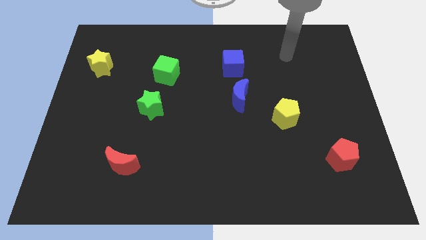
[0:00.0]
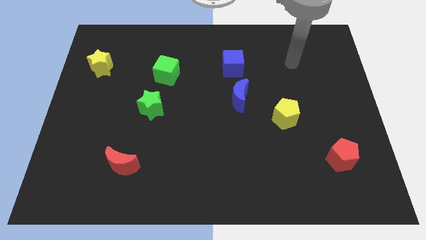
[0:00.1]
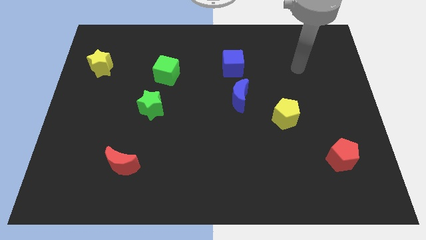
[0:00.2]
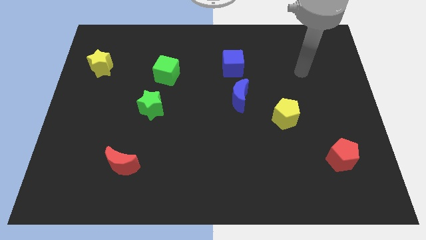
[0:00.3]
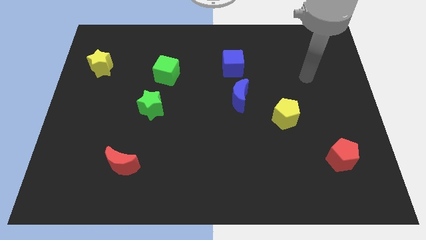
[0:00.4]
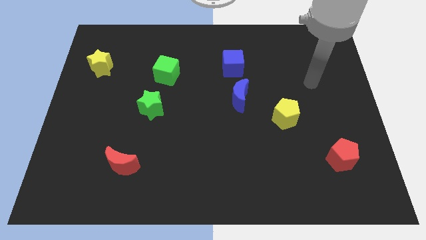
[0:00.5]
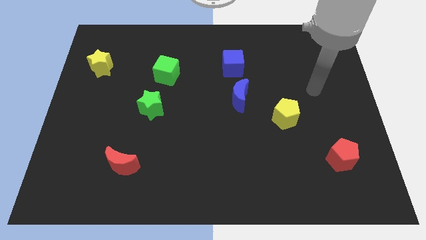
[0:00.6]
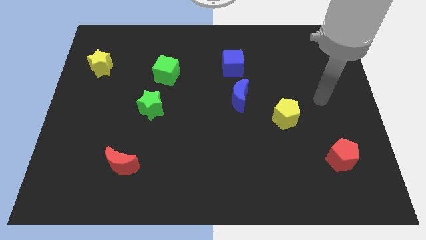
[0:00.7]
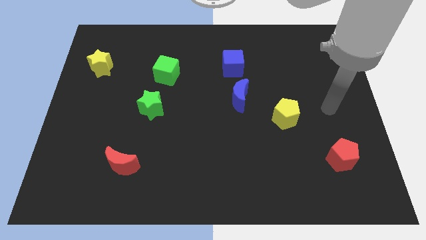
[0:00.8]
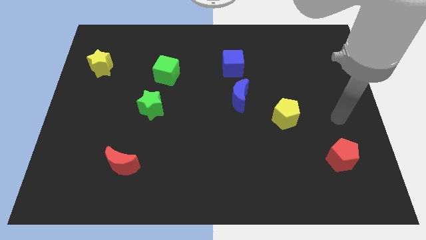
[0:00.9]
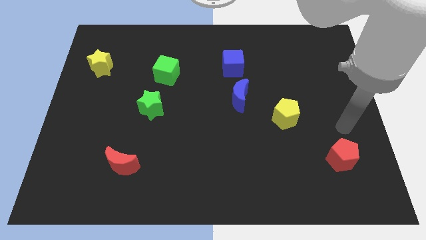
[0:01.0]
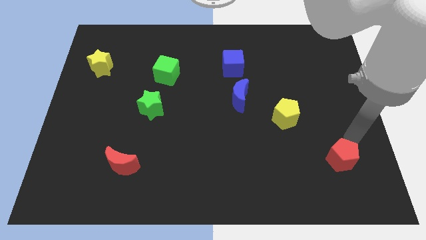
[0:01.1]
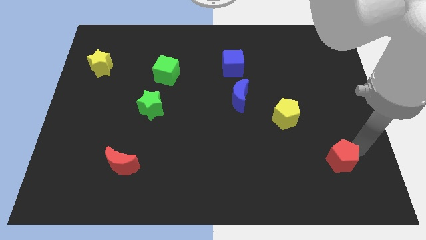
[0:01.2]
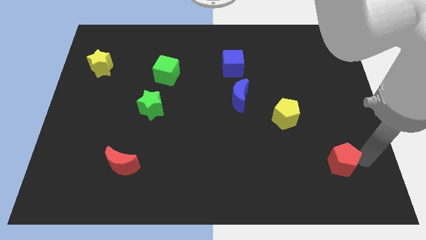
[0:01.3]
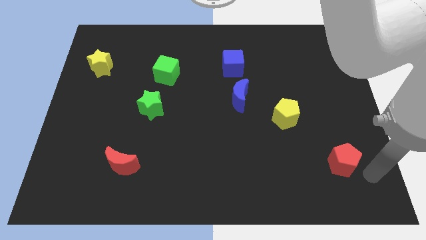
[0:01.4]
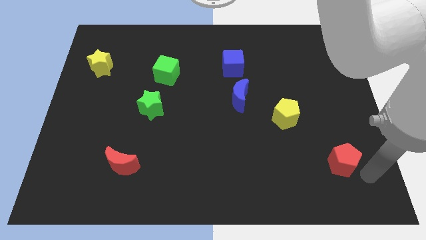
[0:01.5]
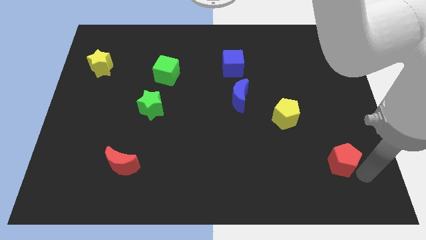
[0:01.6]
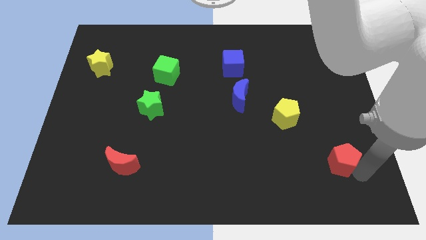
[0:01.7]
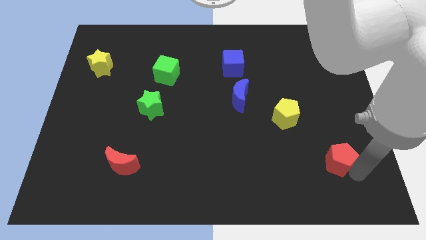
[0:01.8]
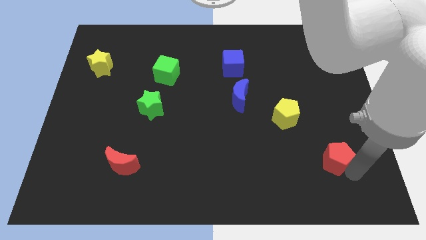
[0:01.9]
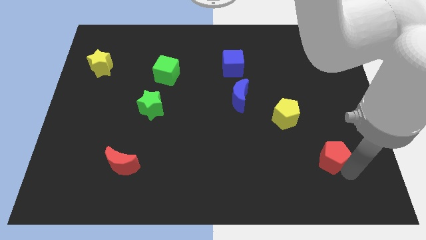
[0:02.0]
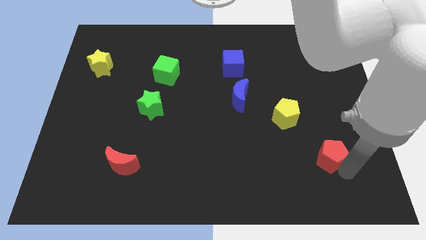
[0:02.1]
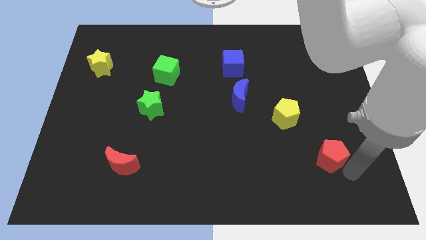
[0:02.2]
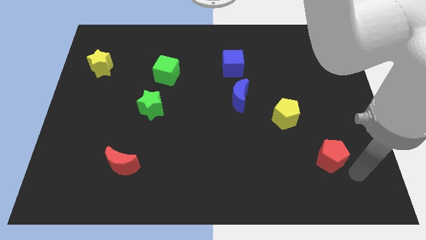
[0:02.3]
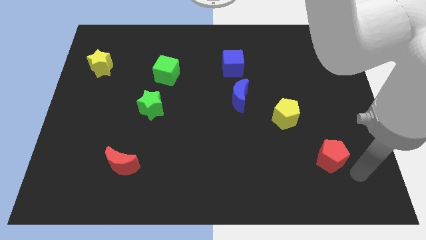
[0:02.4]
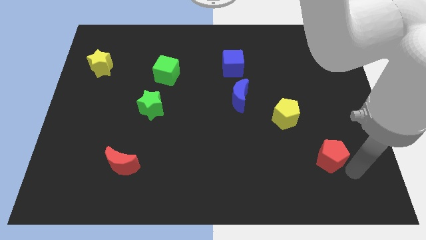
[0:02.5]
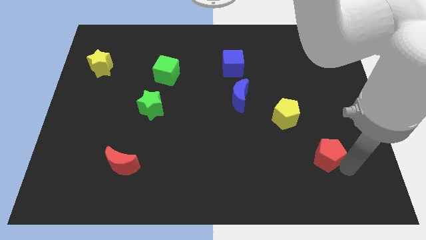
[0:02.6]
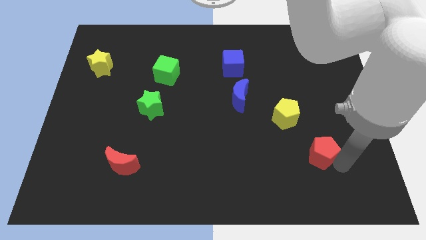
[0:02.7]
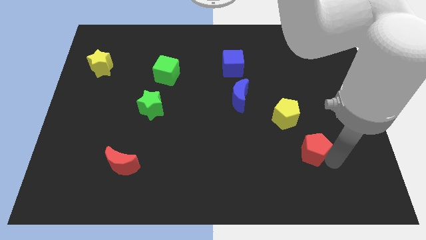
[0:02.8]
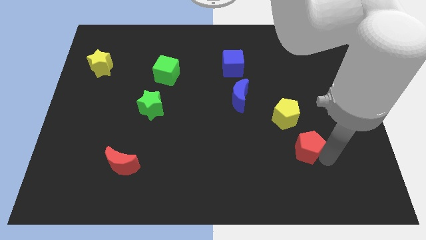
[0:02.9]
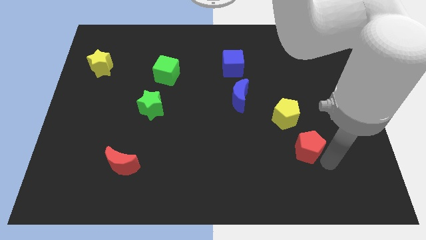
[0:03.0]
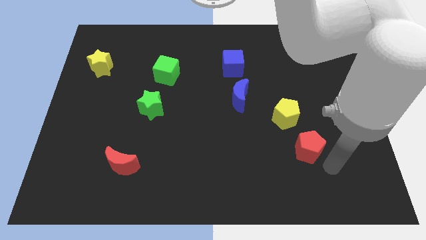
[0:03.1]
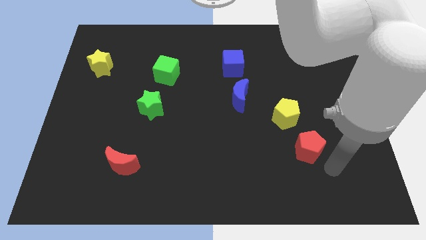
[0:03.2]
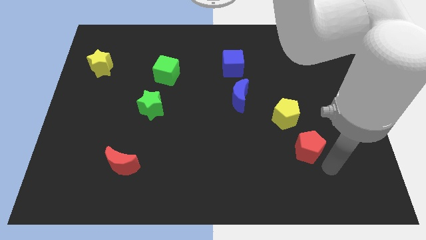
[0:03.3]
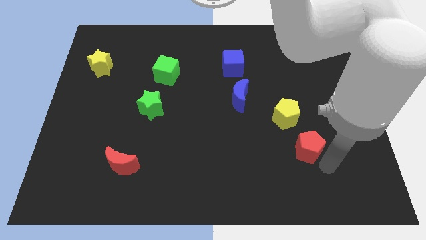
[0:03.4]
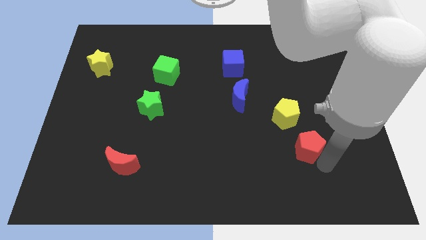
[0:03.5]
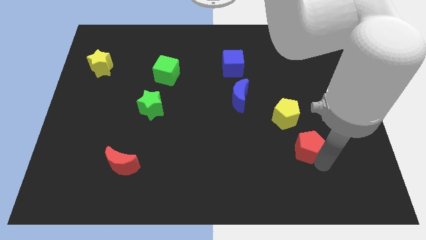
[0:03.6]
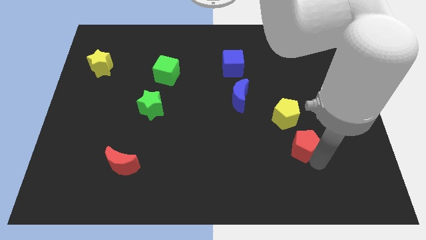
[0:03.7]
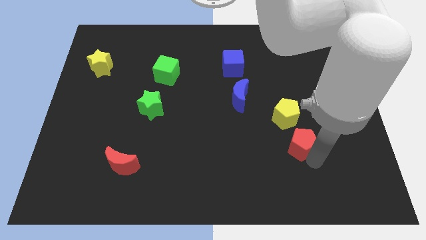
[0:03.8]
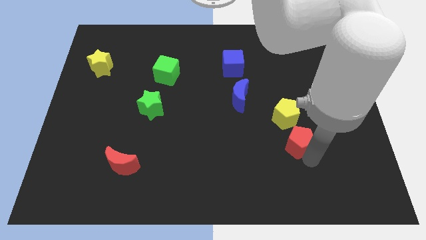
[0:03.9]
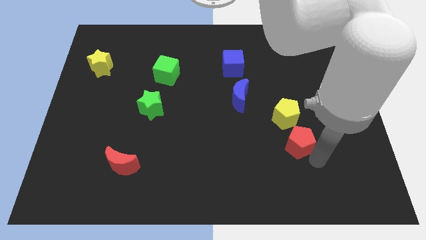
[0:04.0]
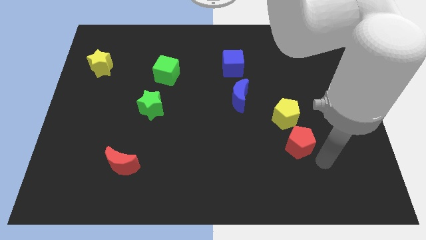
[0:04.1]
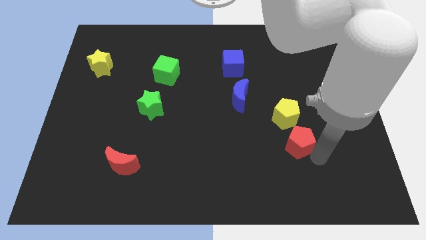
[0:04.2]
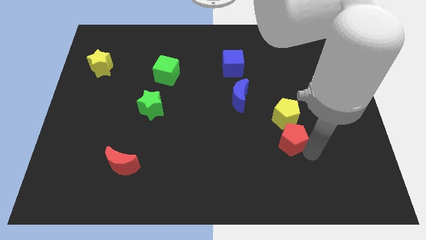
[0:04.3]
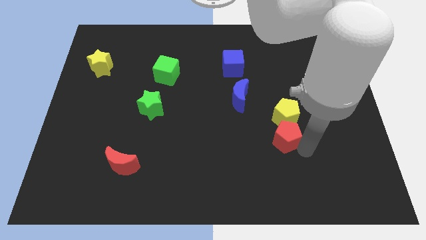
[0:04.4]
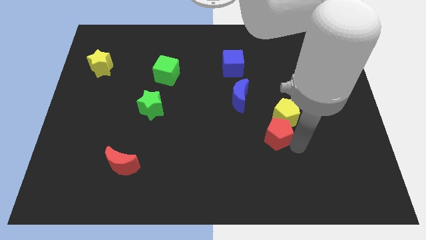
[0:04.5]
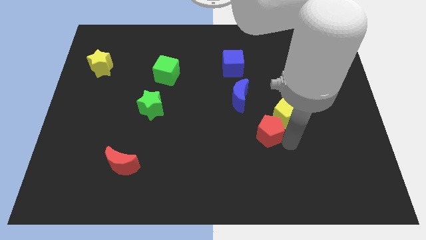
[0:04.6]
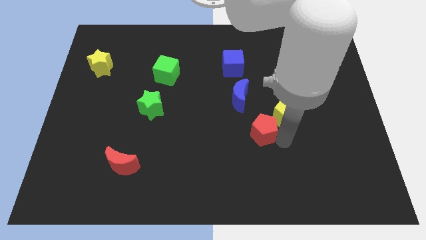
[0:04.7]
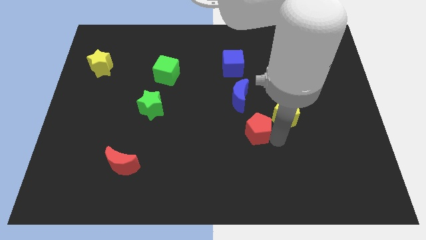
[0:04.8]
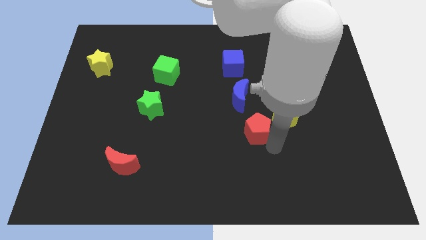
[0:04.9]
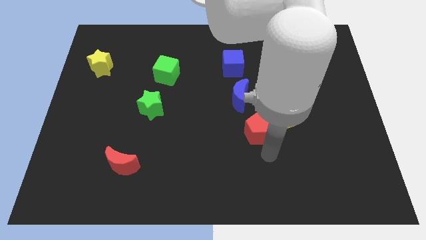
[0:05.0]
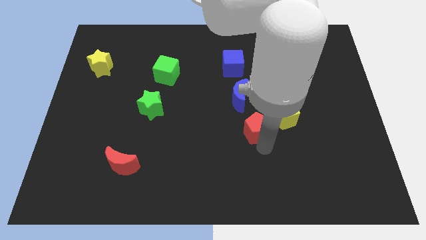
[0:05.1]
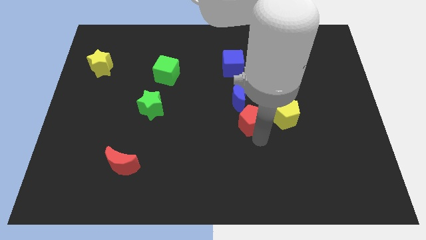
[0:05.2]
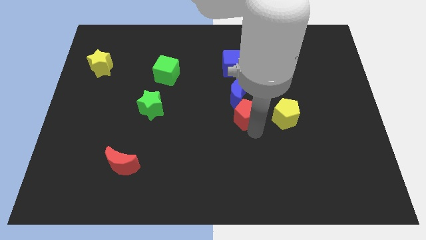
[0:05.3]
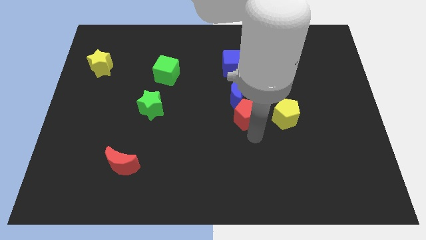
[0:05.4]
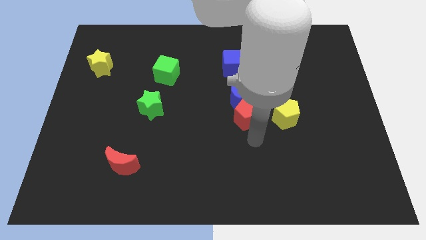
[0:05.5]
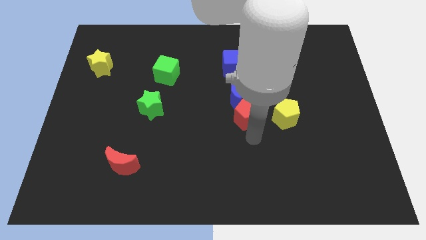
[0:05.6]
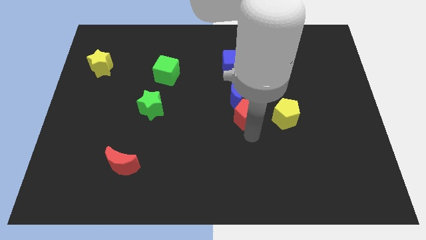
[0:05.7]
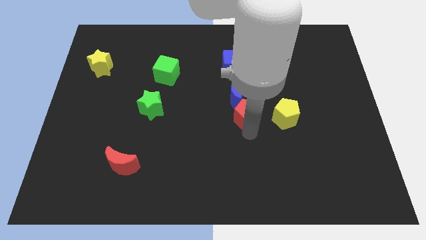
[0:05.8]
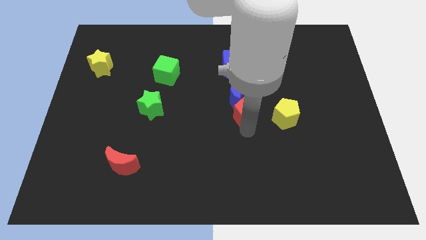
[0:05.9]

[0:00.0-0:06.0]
put the red pentagon close to the blue moon

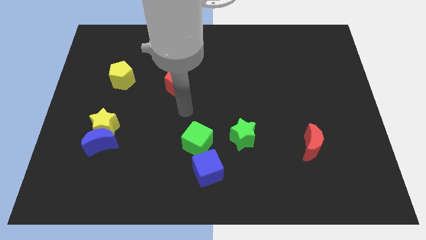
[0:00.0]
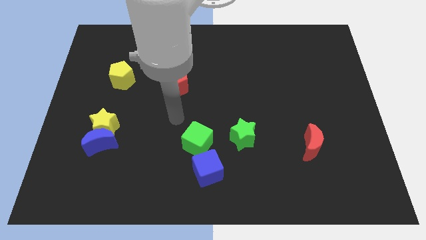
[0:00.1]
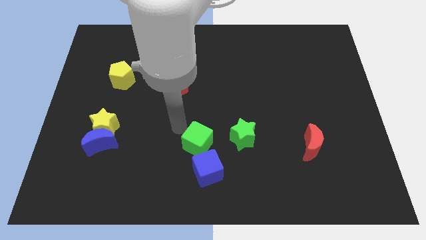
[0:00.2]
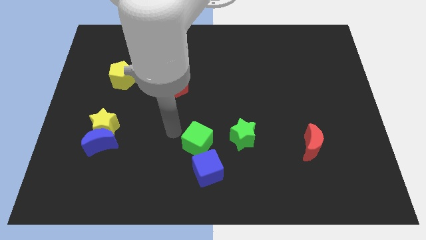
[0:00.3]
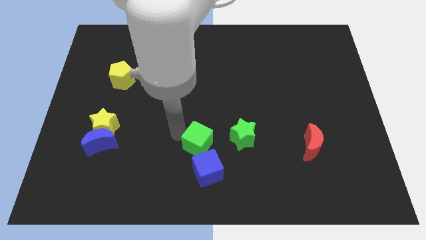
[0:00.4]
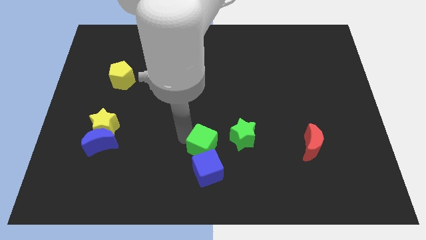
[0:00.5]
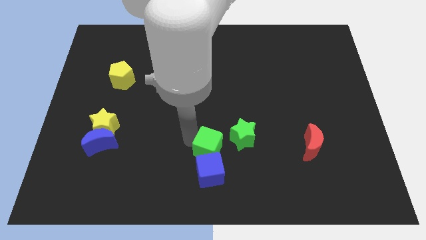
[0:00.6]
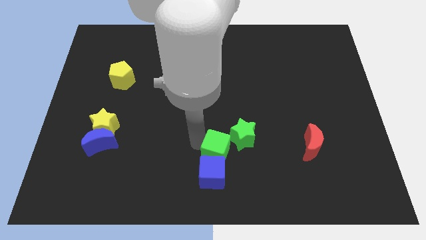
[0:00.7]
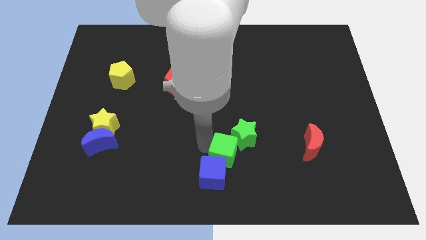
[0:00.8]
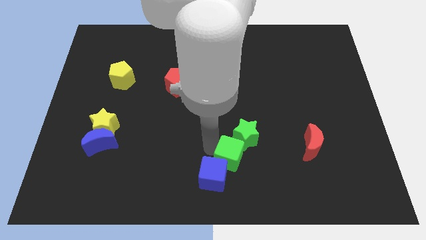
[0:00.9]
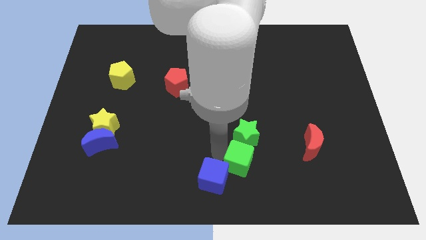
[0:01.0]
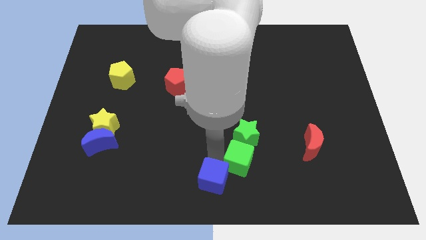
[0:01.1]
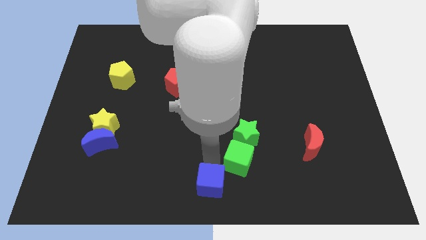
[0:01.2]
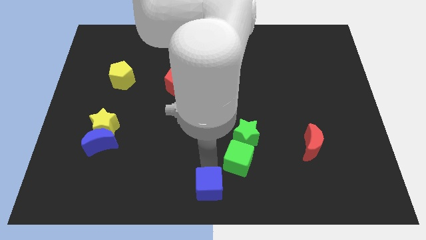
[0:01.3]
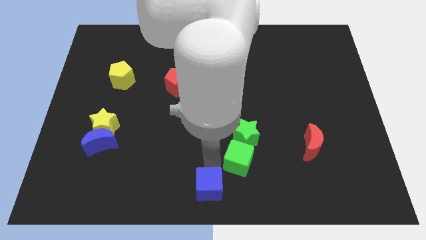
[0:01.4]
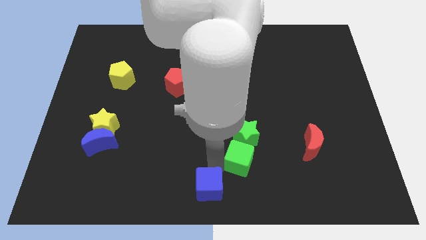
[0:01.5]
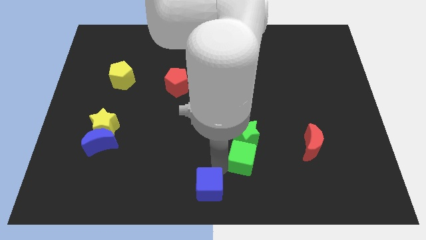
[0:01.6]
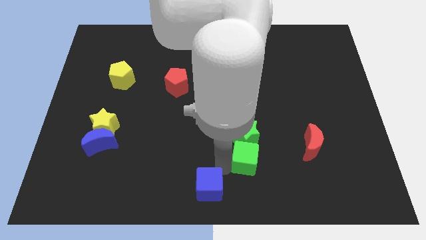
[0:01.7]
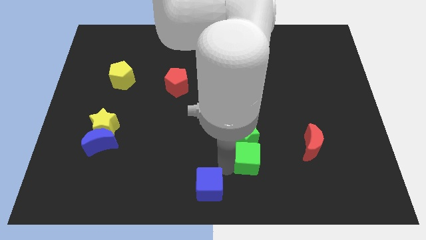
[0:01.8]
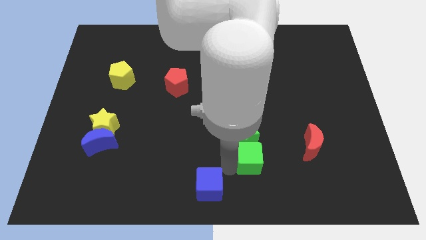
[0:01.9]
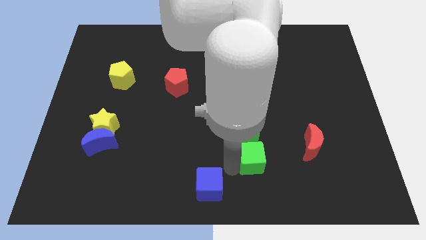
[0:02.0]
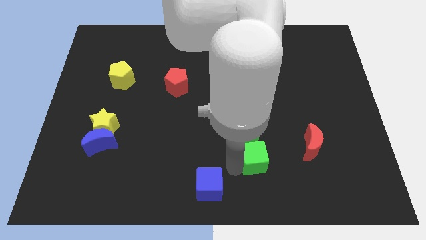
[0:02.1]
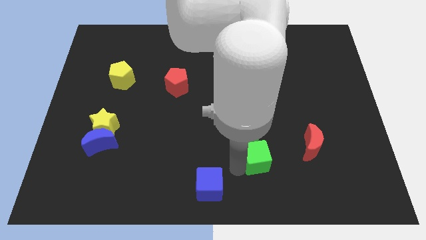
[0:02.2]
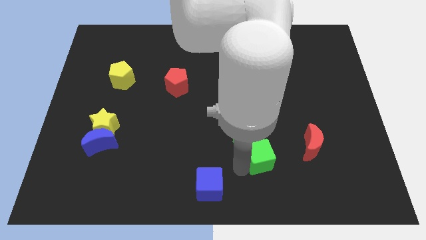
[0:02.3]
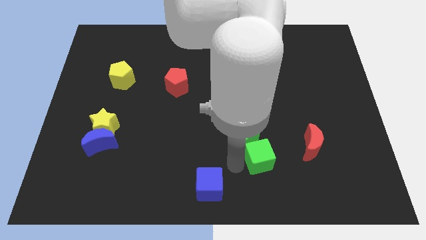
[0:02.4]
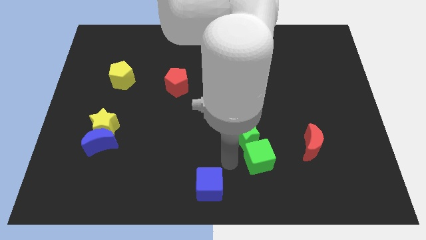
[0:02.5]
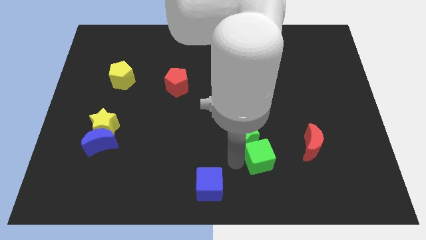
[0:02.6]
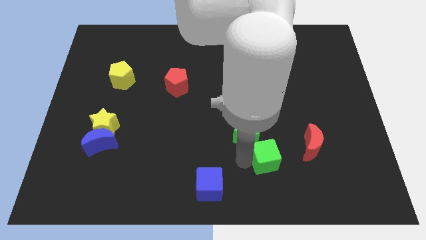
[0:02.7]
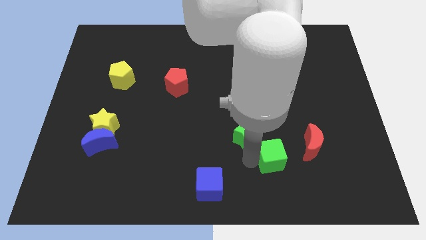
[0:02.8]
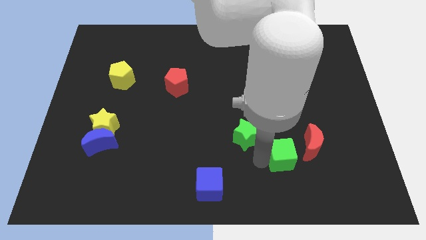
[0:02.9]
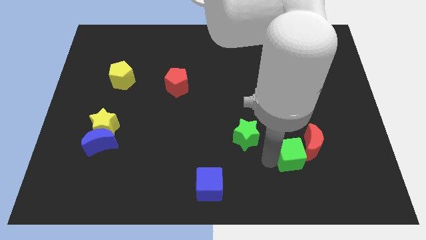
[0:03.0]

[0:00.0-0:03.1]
slide the green cube close to the red moon
